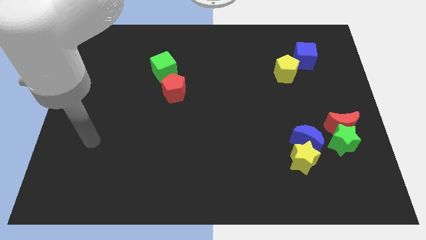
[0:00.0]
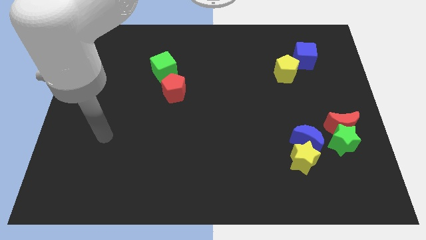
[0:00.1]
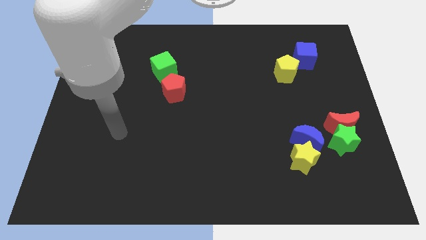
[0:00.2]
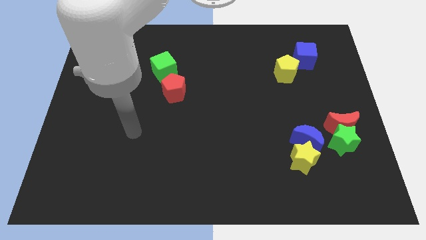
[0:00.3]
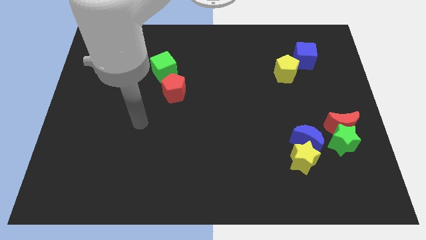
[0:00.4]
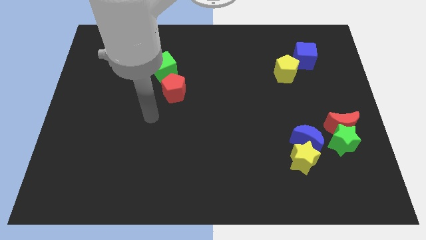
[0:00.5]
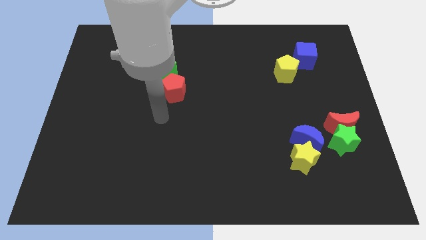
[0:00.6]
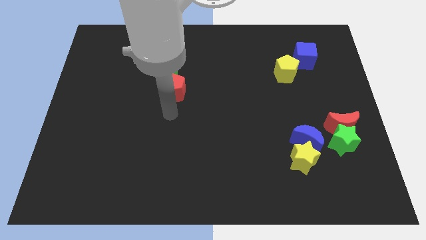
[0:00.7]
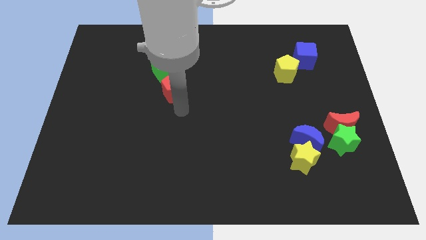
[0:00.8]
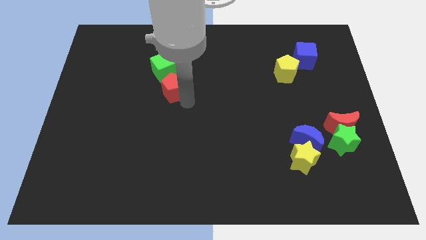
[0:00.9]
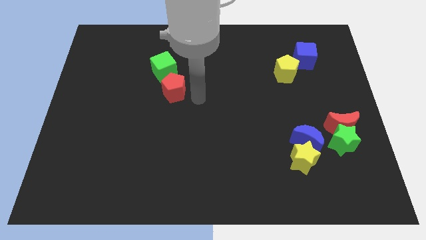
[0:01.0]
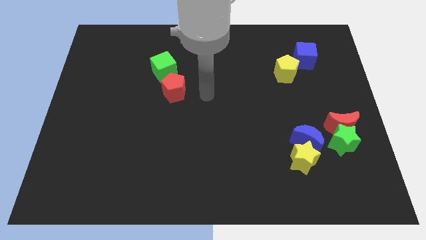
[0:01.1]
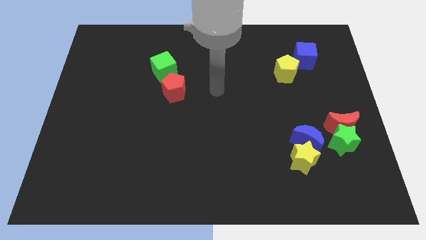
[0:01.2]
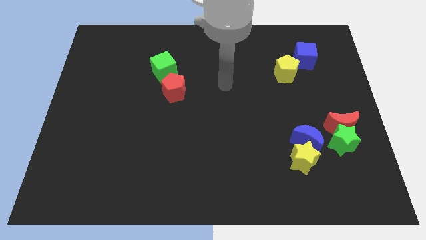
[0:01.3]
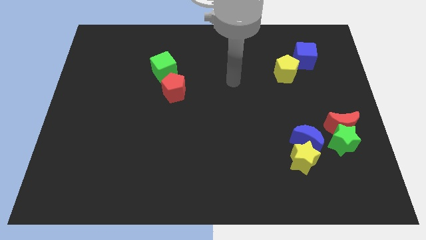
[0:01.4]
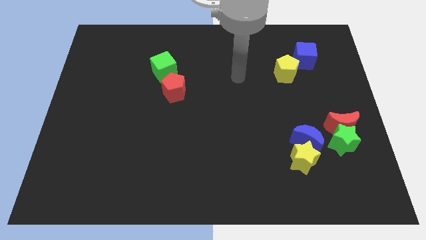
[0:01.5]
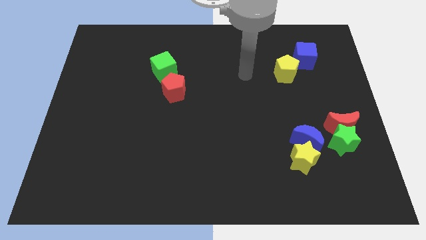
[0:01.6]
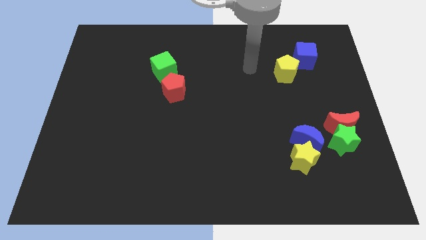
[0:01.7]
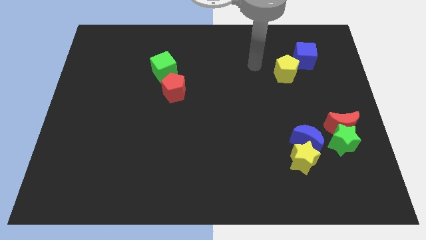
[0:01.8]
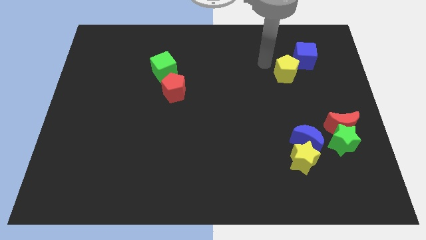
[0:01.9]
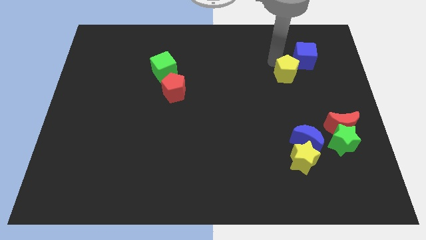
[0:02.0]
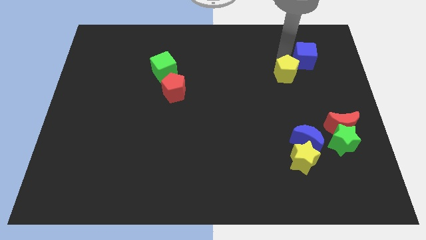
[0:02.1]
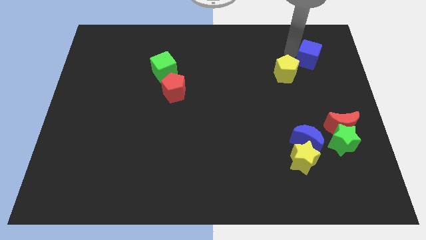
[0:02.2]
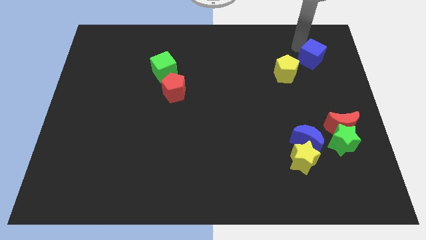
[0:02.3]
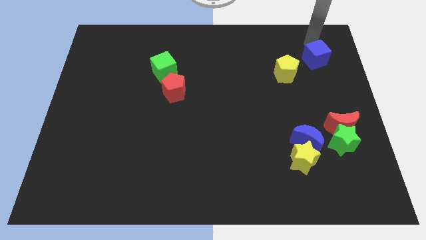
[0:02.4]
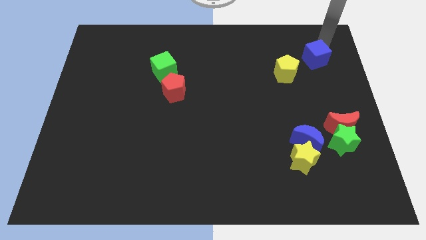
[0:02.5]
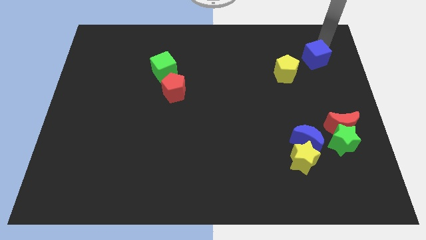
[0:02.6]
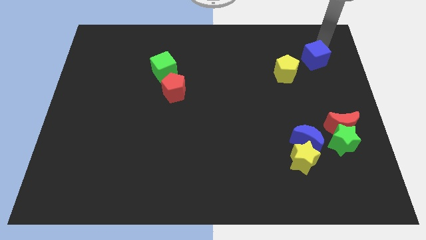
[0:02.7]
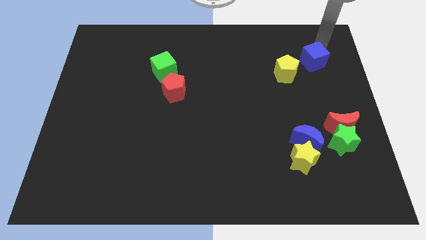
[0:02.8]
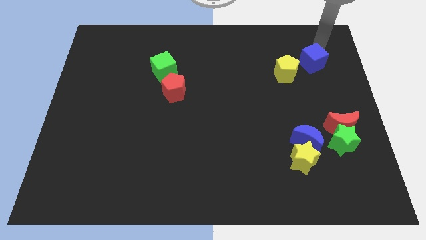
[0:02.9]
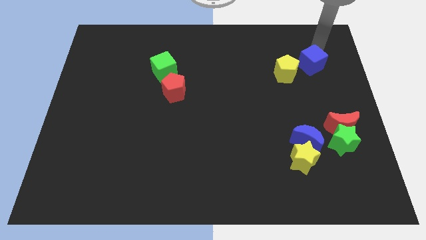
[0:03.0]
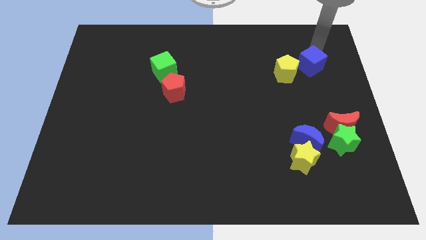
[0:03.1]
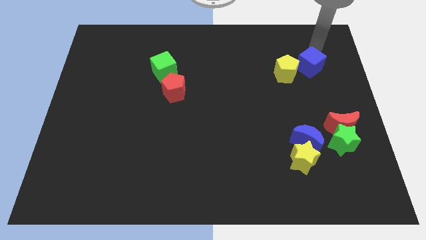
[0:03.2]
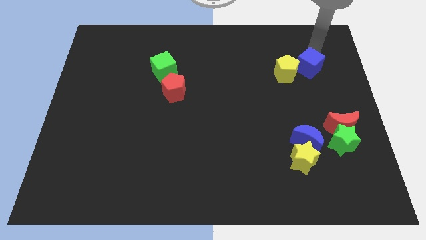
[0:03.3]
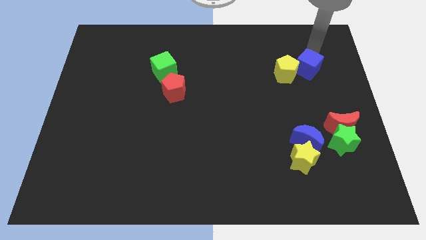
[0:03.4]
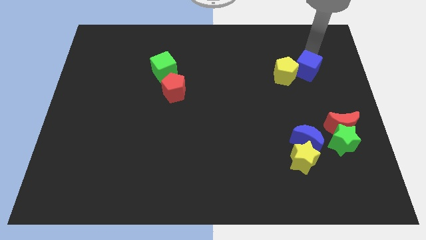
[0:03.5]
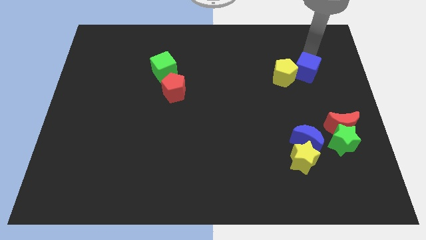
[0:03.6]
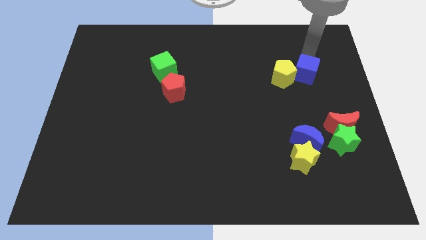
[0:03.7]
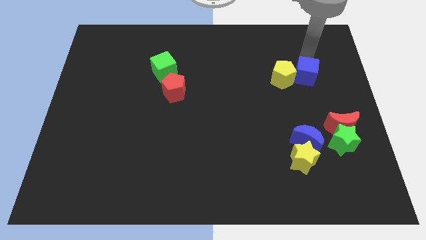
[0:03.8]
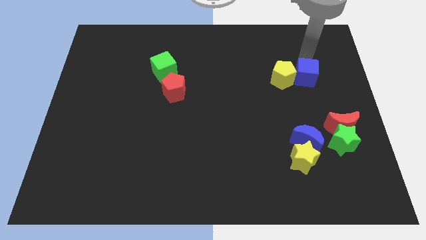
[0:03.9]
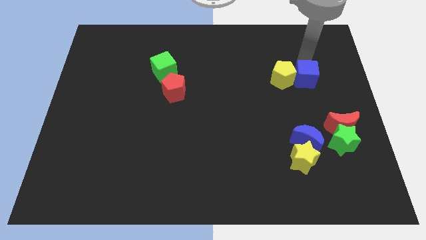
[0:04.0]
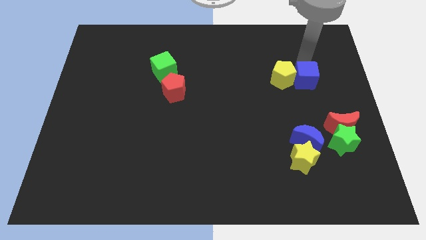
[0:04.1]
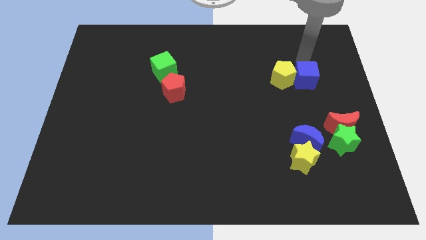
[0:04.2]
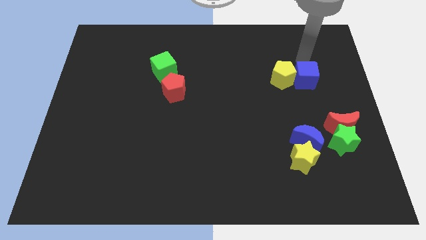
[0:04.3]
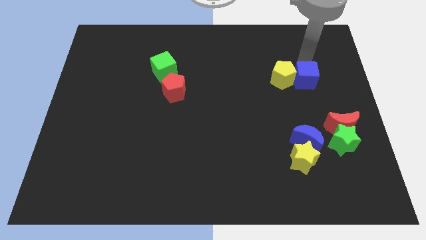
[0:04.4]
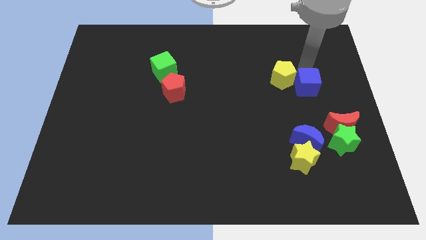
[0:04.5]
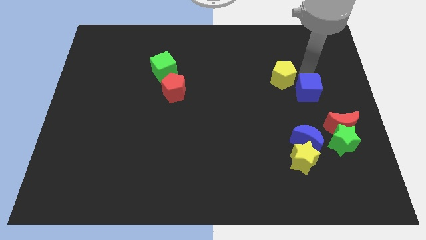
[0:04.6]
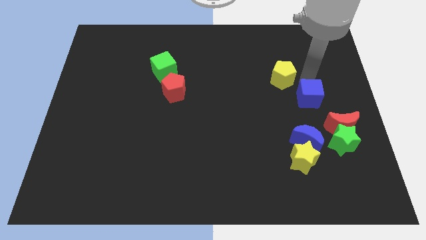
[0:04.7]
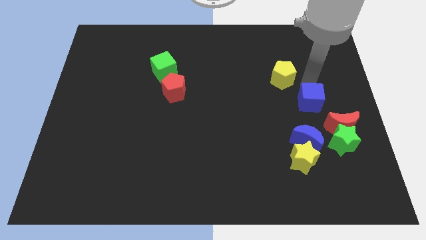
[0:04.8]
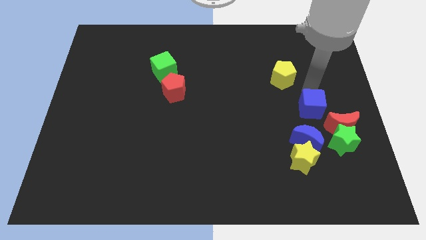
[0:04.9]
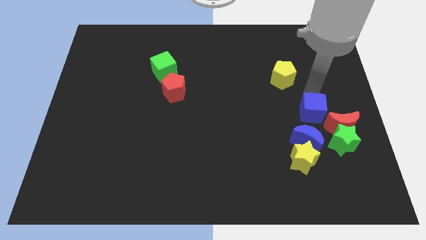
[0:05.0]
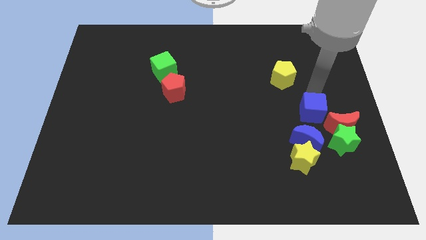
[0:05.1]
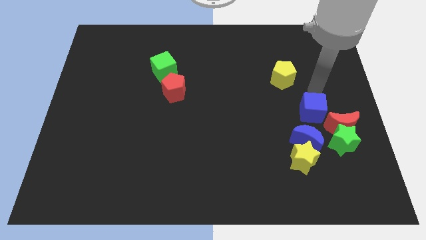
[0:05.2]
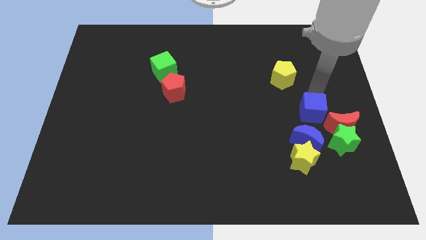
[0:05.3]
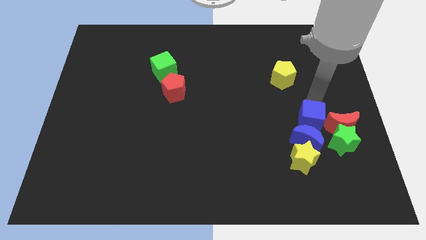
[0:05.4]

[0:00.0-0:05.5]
push the blue cube next to the blue moon

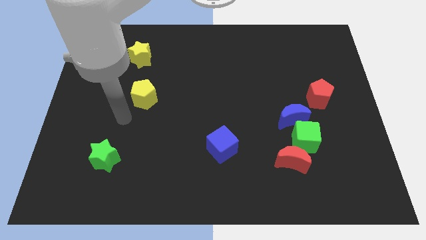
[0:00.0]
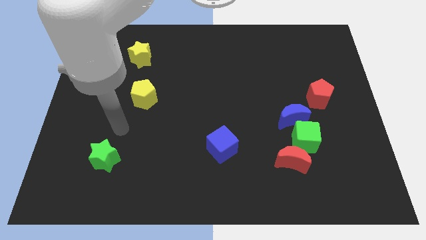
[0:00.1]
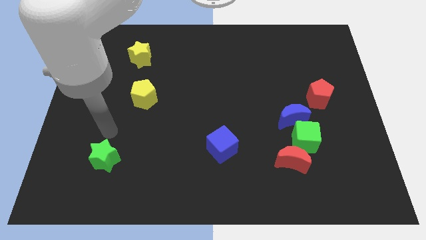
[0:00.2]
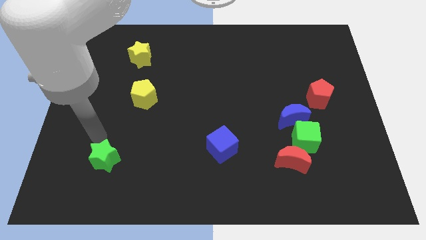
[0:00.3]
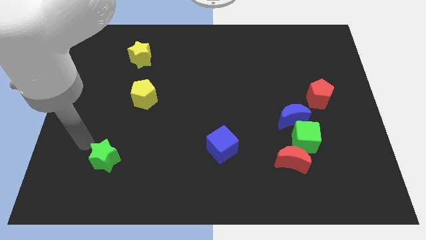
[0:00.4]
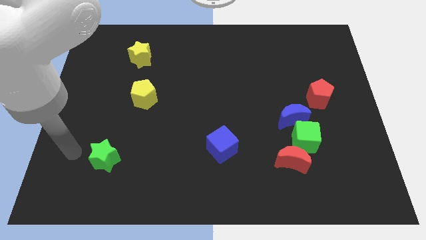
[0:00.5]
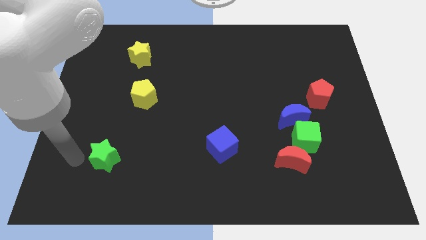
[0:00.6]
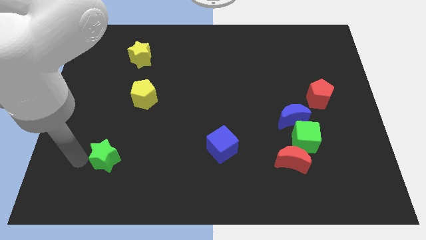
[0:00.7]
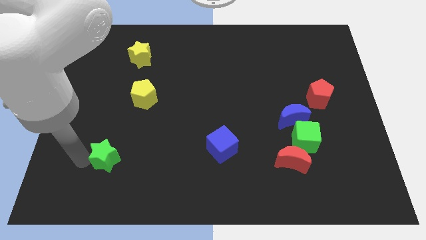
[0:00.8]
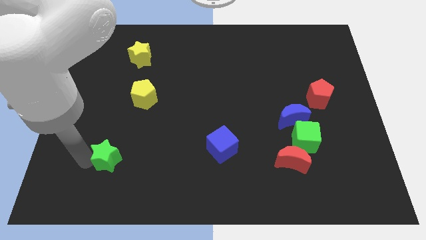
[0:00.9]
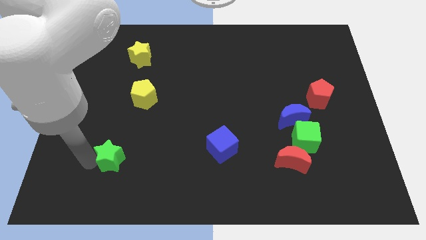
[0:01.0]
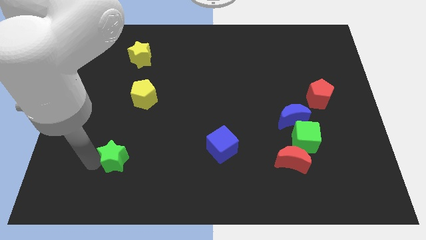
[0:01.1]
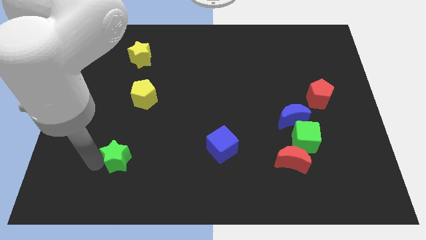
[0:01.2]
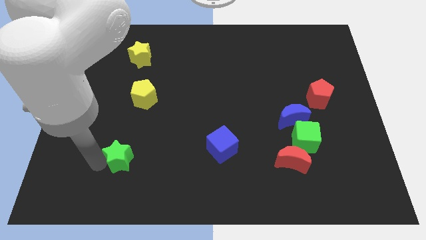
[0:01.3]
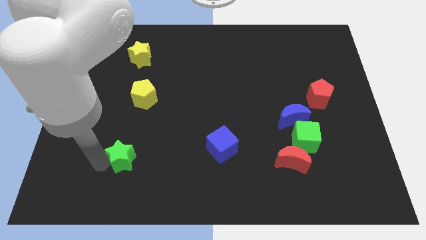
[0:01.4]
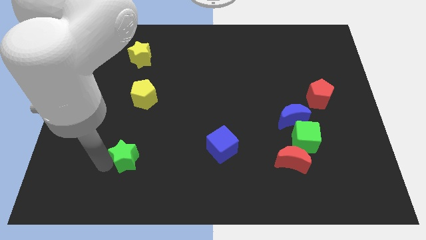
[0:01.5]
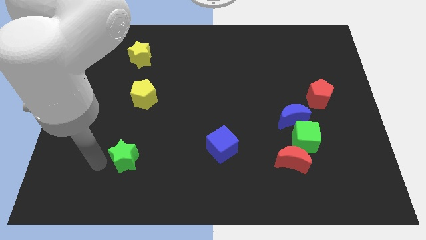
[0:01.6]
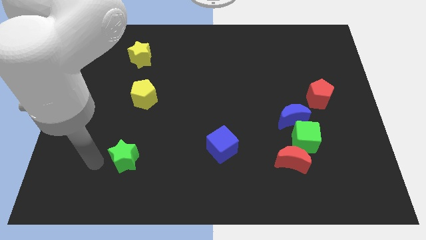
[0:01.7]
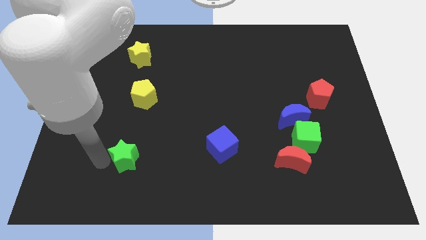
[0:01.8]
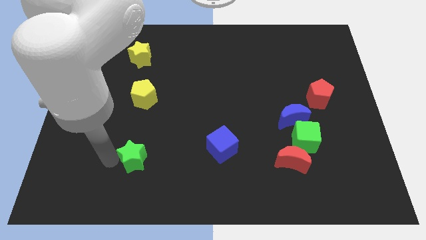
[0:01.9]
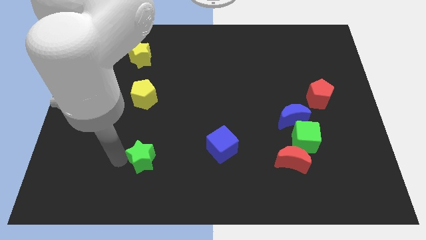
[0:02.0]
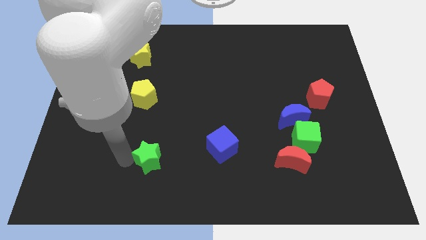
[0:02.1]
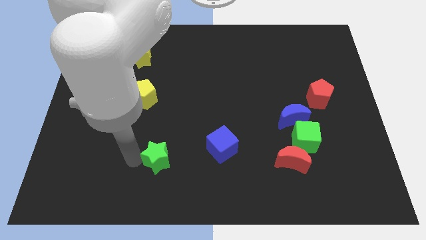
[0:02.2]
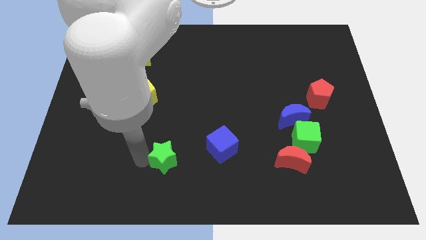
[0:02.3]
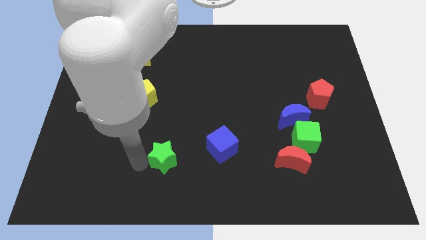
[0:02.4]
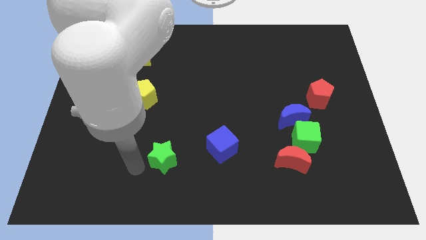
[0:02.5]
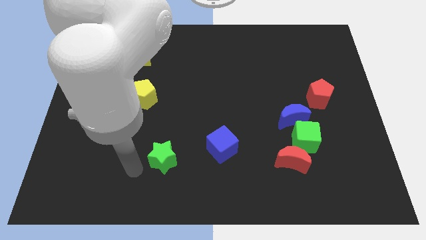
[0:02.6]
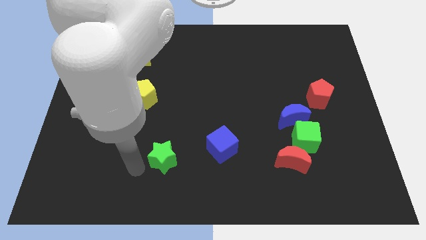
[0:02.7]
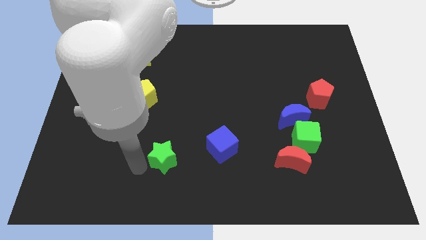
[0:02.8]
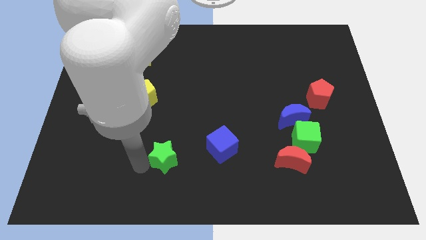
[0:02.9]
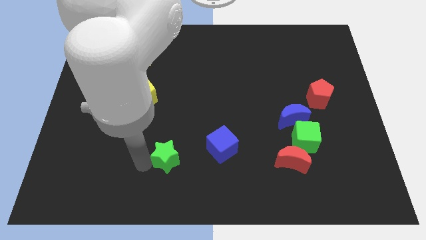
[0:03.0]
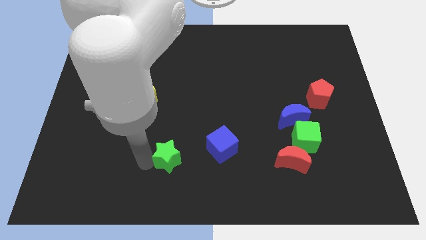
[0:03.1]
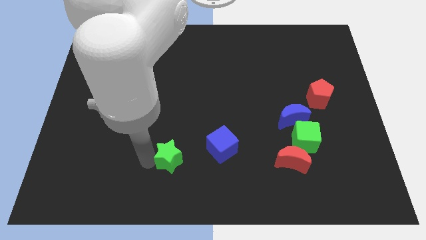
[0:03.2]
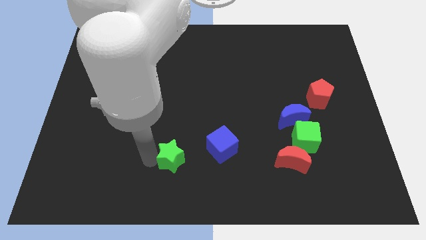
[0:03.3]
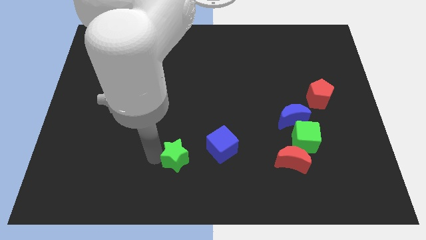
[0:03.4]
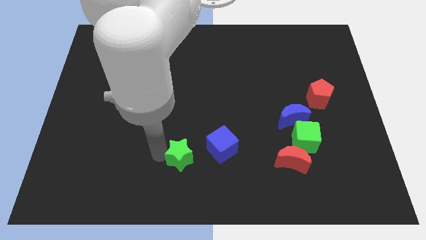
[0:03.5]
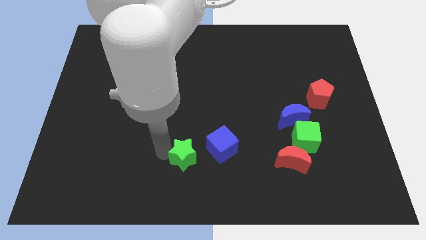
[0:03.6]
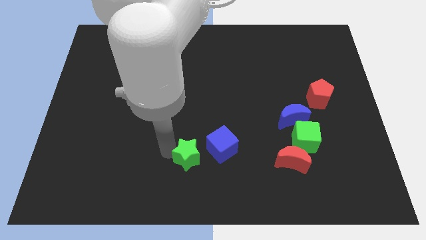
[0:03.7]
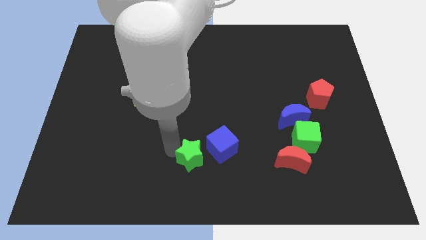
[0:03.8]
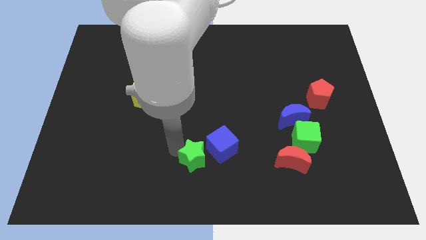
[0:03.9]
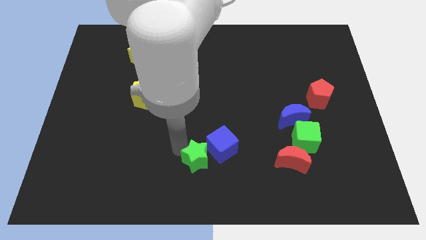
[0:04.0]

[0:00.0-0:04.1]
slide the green star next to the blue cube
